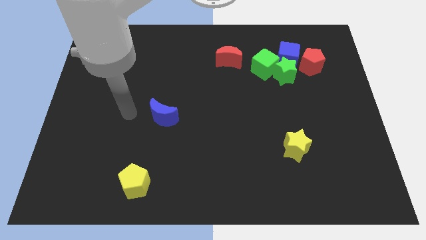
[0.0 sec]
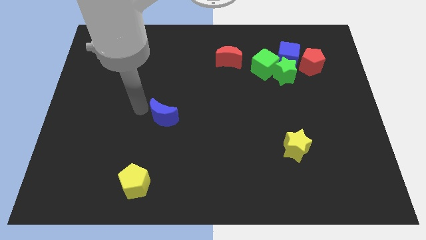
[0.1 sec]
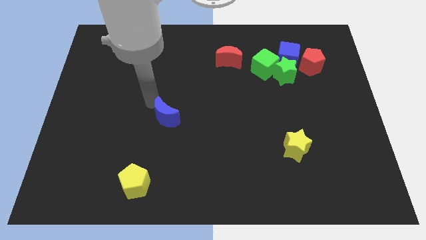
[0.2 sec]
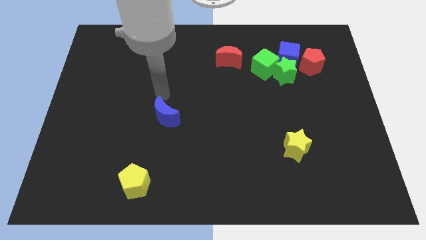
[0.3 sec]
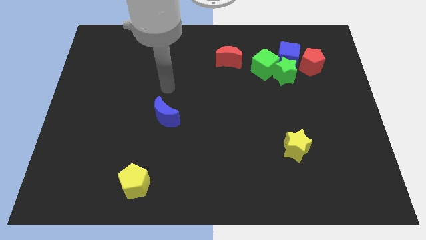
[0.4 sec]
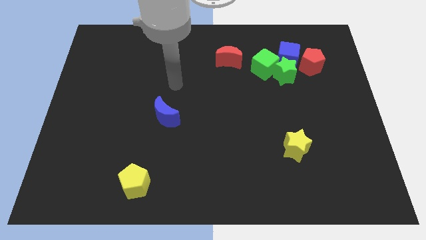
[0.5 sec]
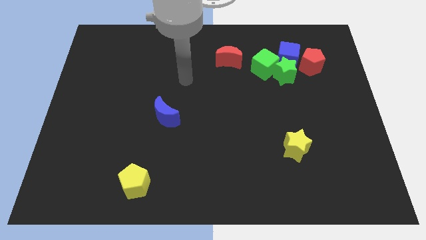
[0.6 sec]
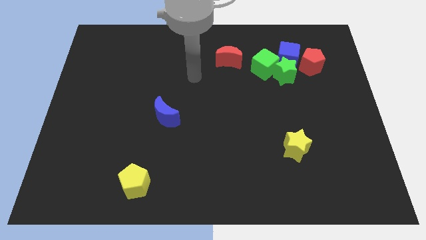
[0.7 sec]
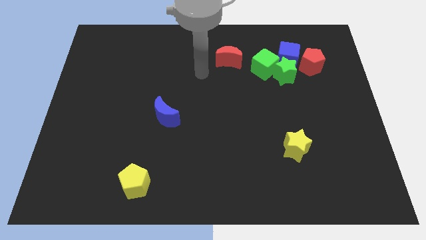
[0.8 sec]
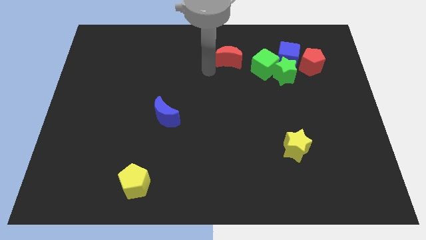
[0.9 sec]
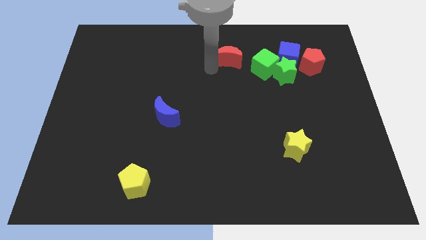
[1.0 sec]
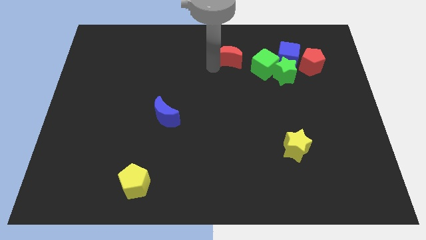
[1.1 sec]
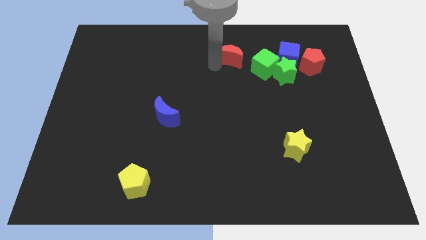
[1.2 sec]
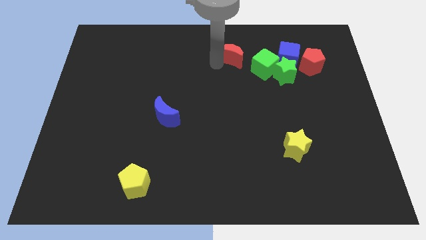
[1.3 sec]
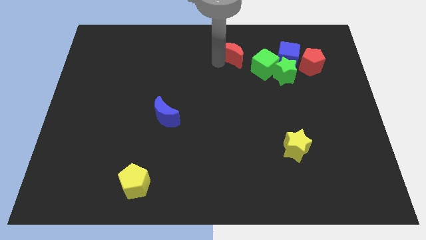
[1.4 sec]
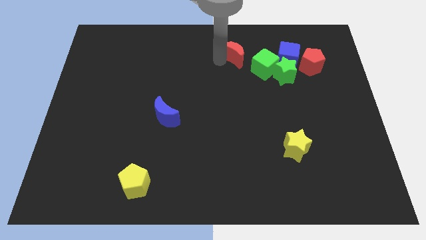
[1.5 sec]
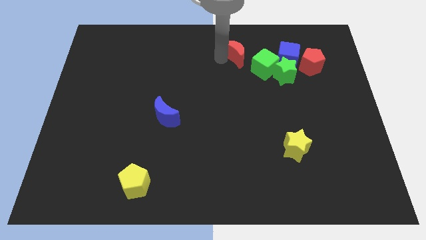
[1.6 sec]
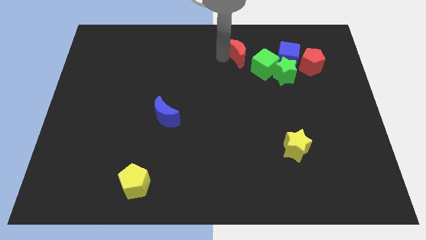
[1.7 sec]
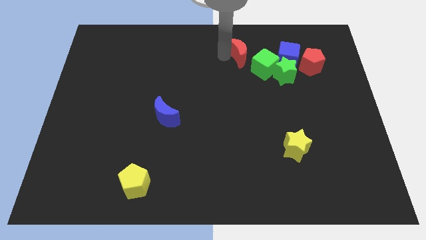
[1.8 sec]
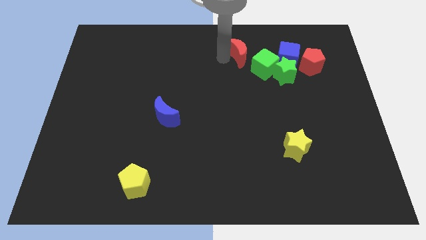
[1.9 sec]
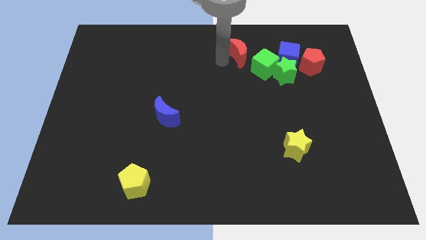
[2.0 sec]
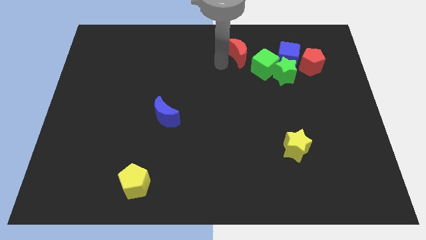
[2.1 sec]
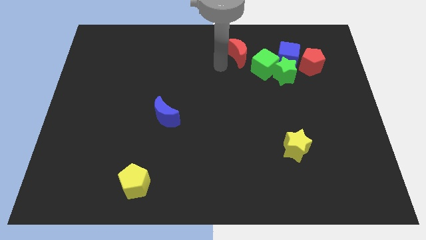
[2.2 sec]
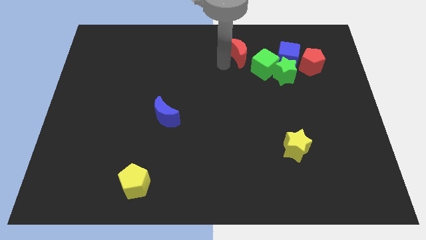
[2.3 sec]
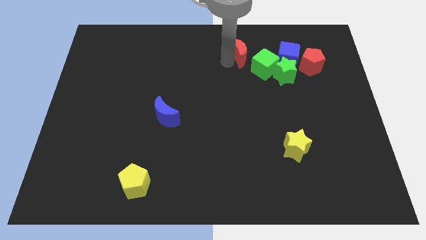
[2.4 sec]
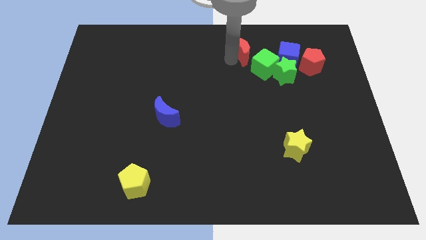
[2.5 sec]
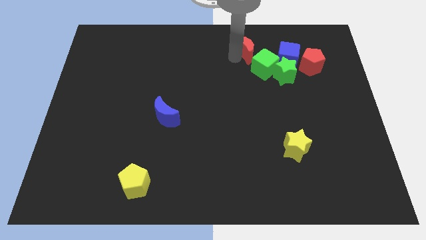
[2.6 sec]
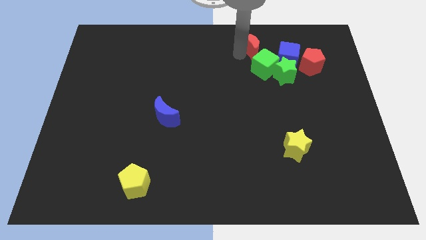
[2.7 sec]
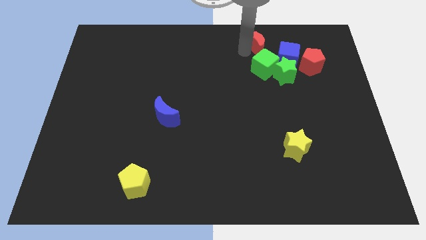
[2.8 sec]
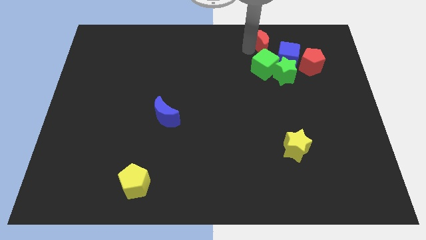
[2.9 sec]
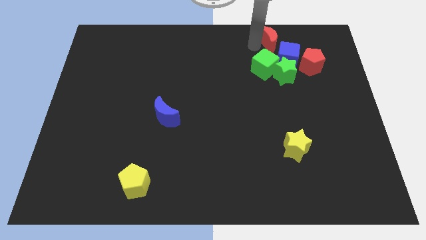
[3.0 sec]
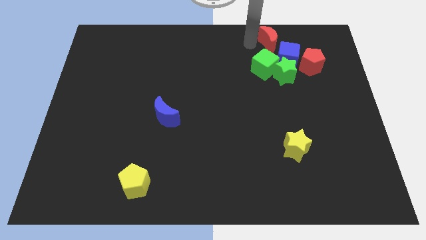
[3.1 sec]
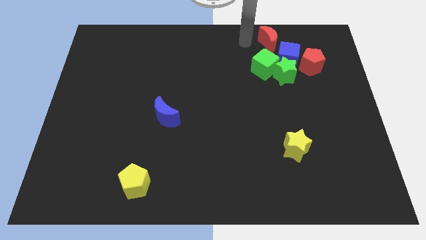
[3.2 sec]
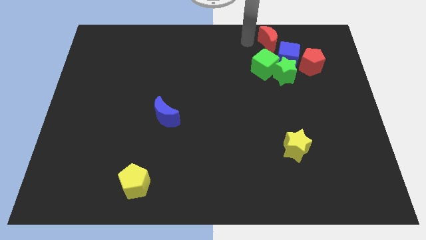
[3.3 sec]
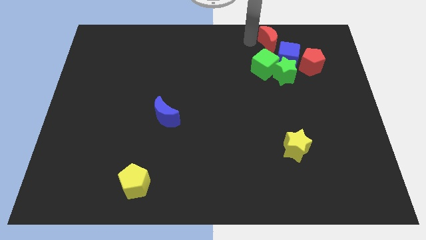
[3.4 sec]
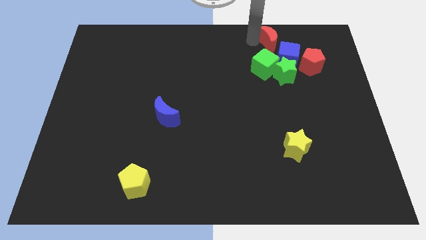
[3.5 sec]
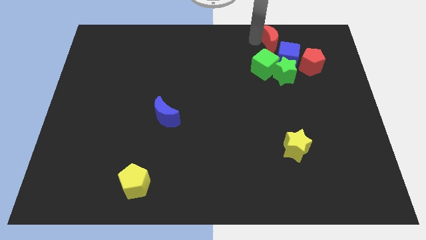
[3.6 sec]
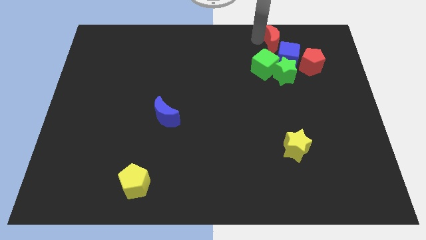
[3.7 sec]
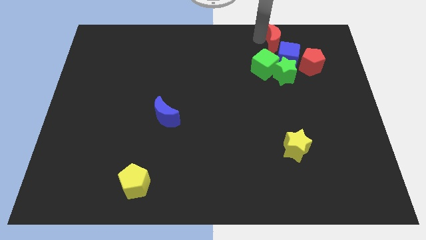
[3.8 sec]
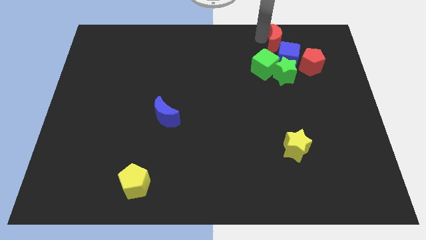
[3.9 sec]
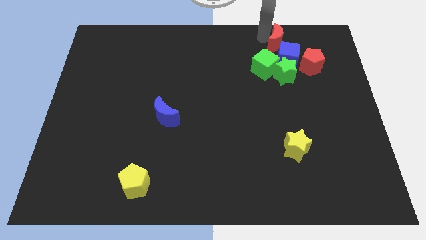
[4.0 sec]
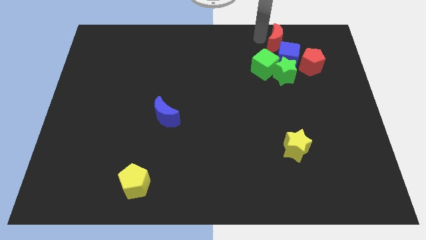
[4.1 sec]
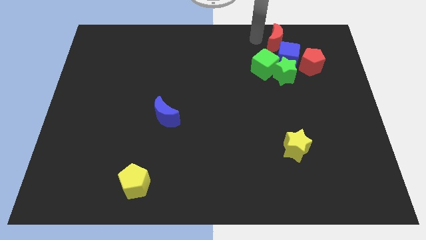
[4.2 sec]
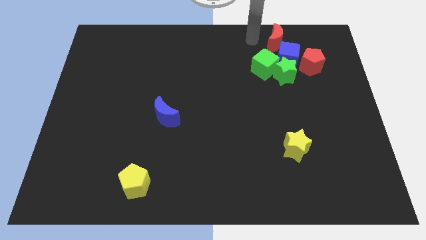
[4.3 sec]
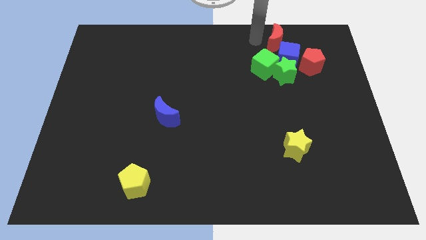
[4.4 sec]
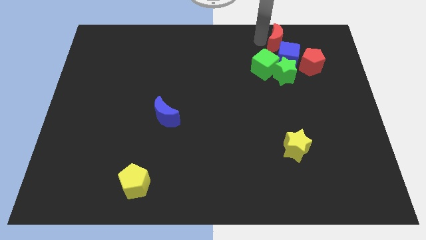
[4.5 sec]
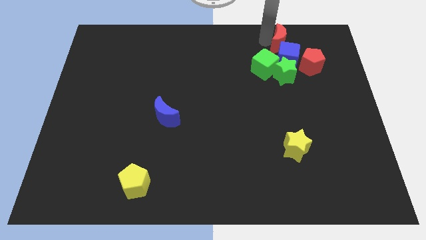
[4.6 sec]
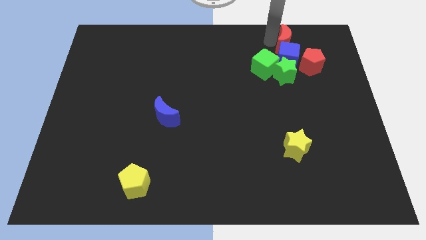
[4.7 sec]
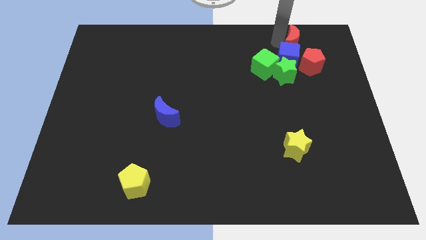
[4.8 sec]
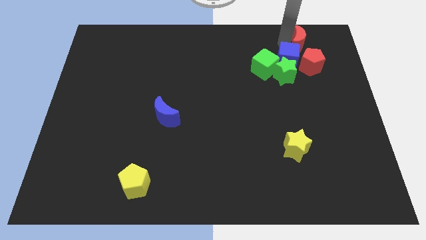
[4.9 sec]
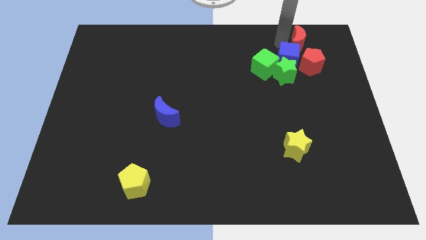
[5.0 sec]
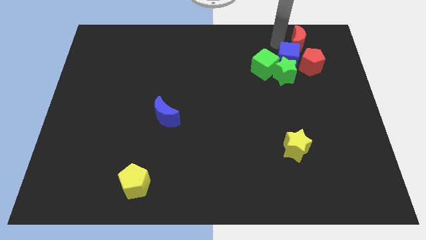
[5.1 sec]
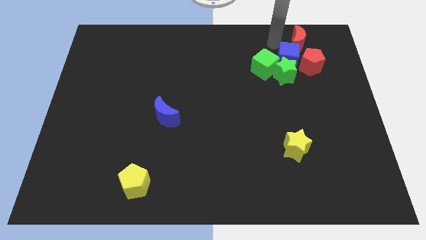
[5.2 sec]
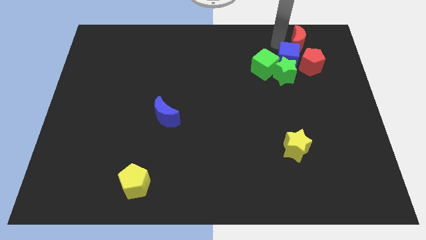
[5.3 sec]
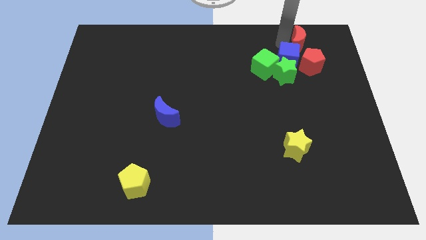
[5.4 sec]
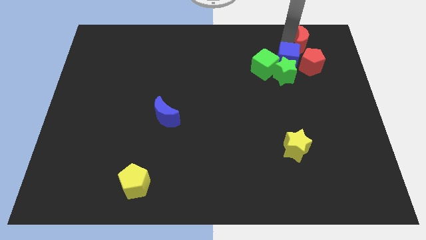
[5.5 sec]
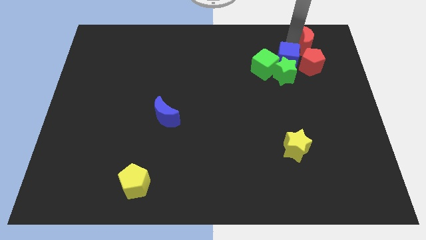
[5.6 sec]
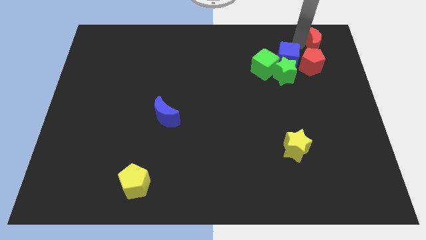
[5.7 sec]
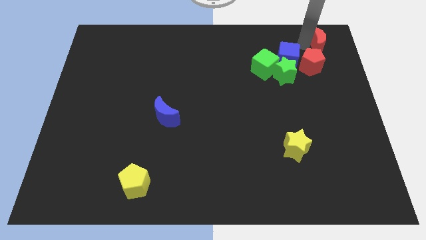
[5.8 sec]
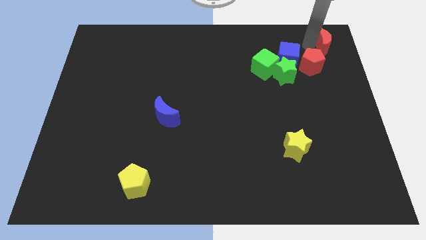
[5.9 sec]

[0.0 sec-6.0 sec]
put the red moon to the top right of the board

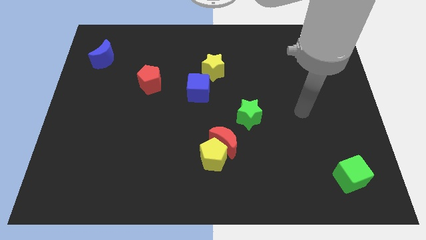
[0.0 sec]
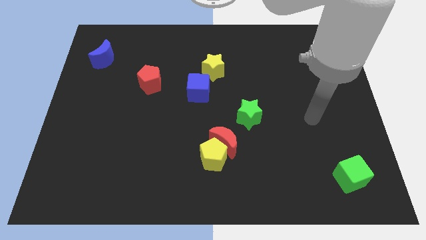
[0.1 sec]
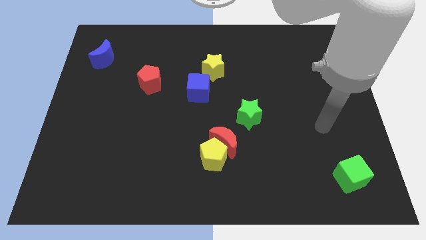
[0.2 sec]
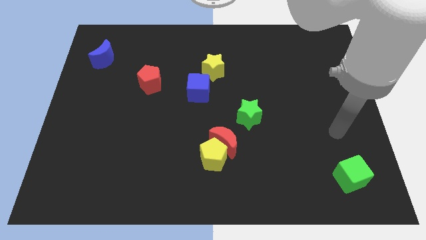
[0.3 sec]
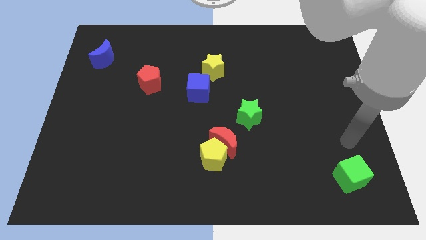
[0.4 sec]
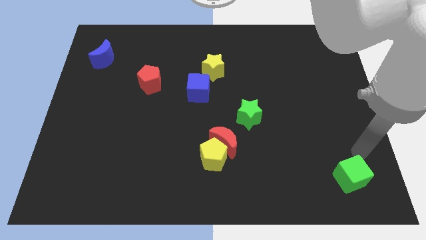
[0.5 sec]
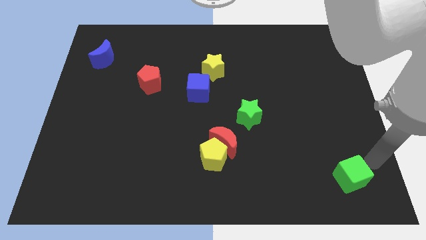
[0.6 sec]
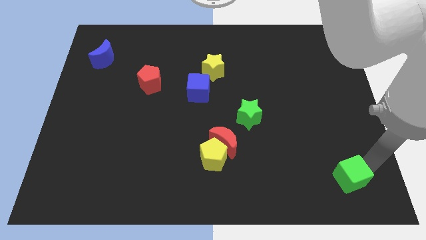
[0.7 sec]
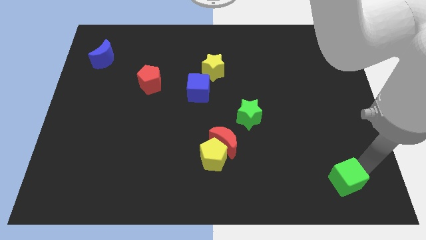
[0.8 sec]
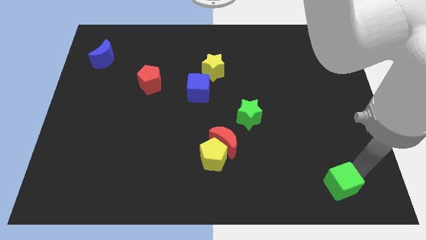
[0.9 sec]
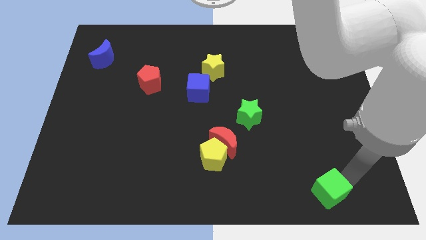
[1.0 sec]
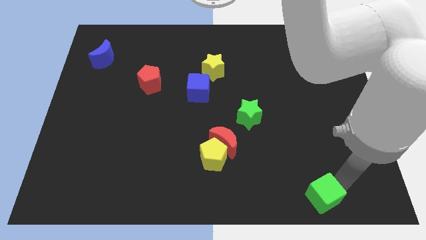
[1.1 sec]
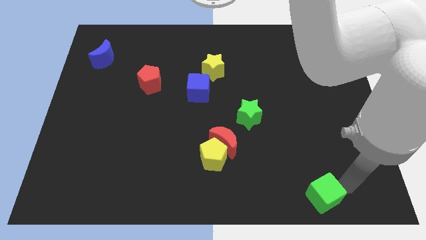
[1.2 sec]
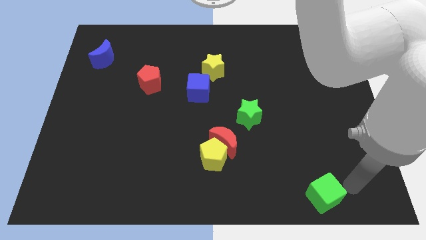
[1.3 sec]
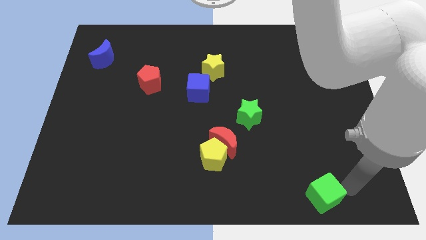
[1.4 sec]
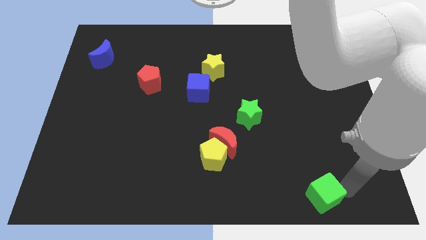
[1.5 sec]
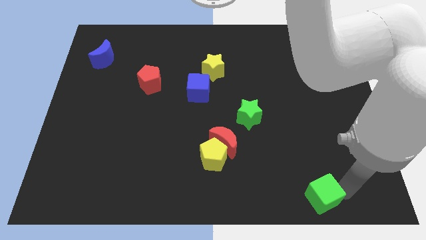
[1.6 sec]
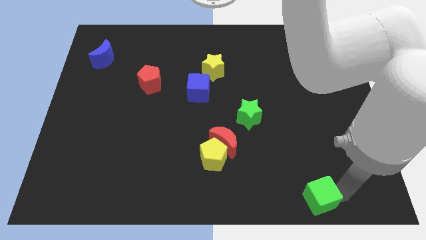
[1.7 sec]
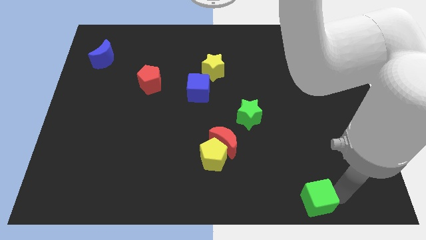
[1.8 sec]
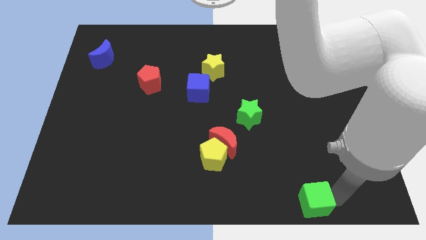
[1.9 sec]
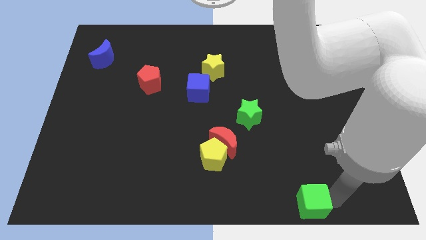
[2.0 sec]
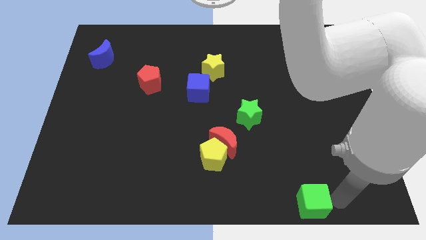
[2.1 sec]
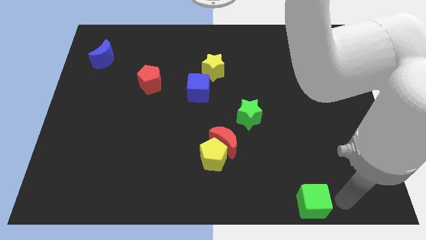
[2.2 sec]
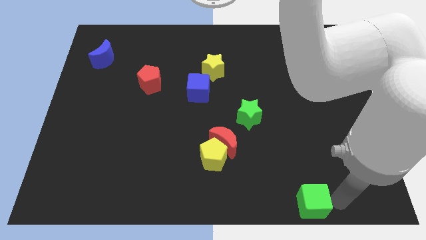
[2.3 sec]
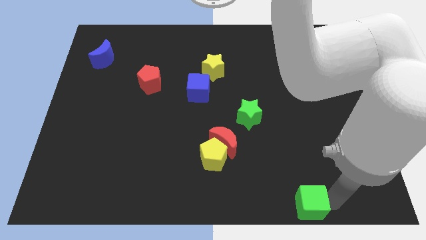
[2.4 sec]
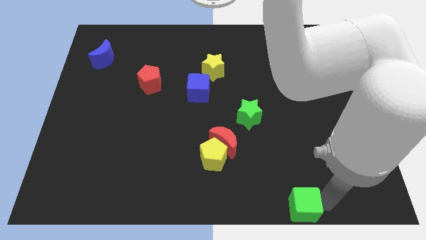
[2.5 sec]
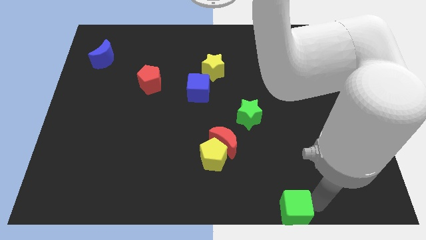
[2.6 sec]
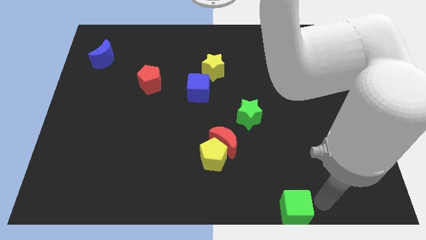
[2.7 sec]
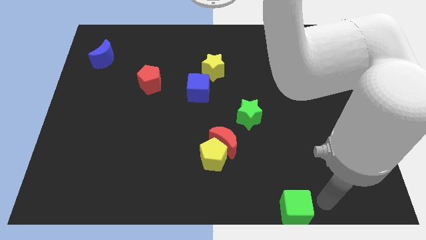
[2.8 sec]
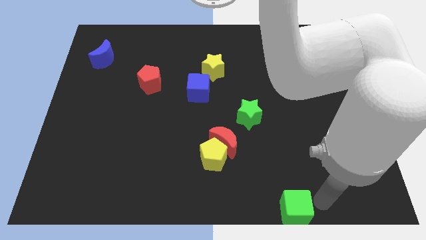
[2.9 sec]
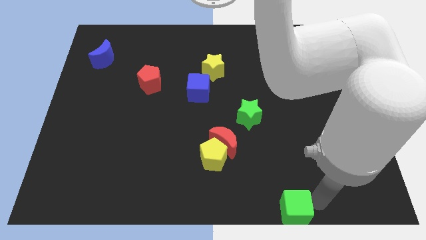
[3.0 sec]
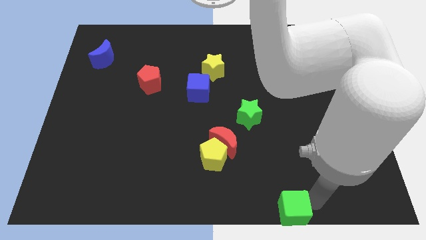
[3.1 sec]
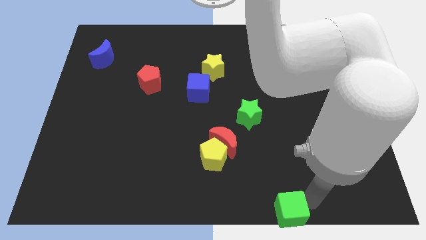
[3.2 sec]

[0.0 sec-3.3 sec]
move the green cube to the bottom
